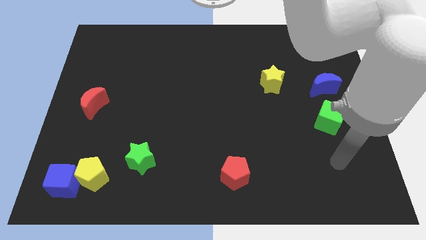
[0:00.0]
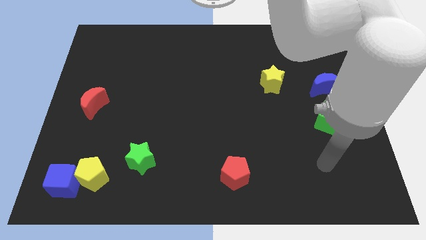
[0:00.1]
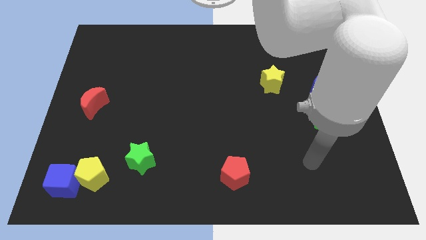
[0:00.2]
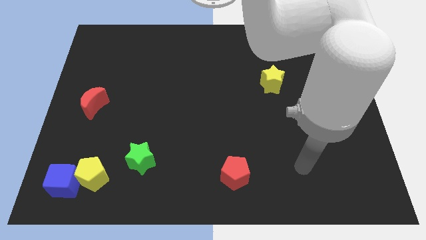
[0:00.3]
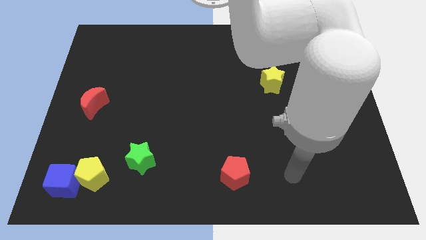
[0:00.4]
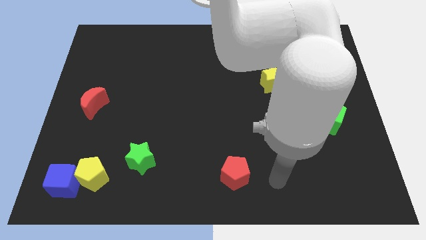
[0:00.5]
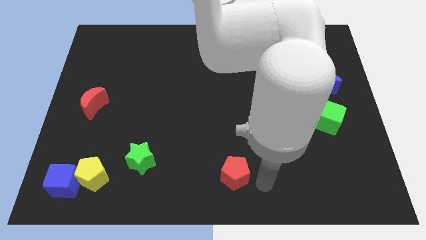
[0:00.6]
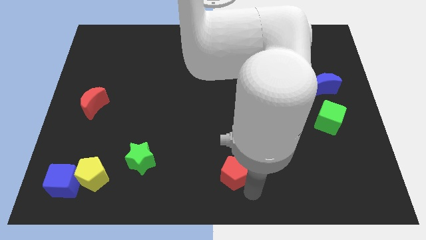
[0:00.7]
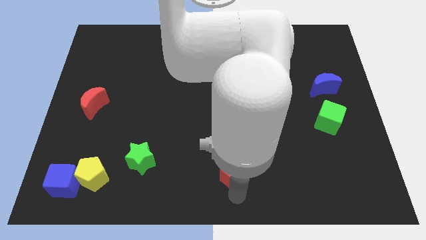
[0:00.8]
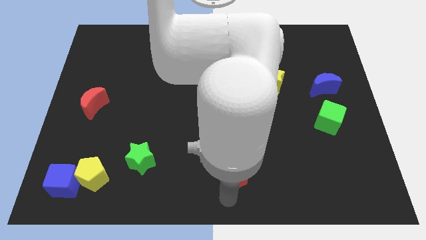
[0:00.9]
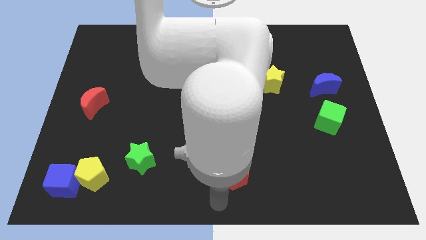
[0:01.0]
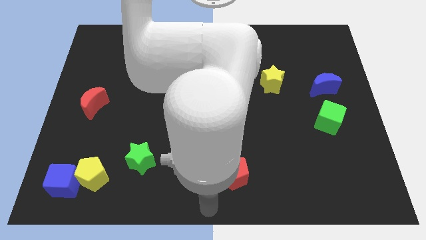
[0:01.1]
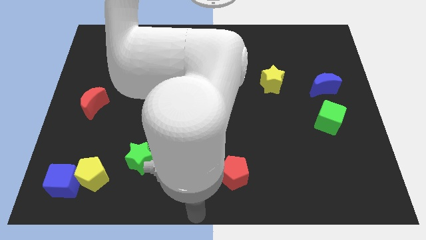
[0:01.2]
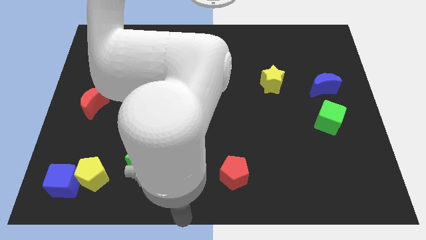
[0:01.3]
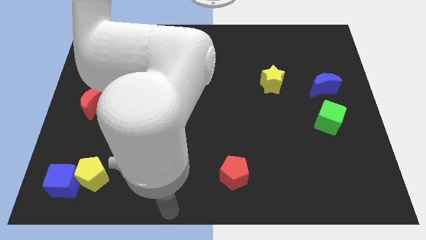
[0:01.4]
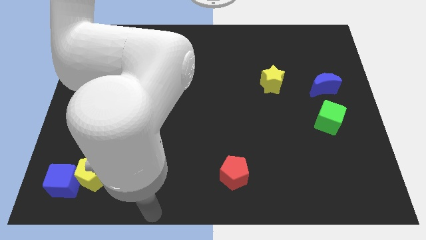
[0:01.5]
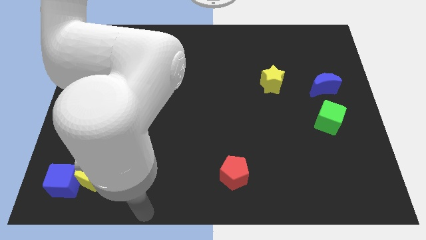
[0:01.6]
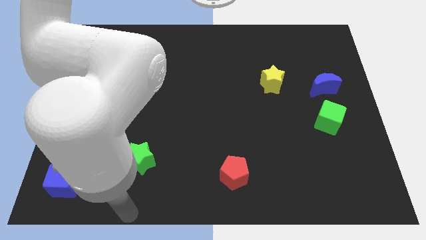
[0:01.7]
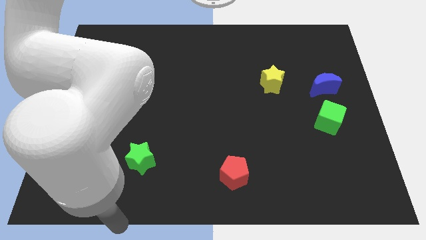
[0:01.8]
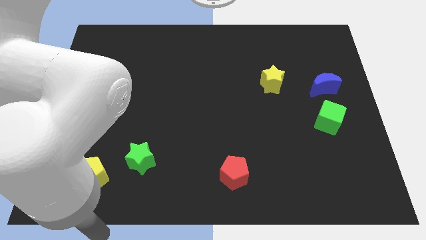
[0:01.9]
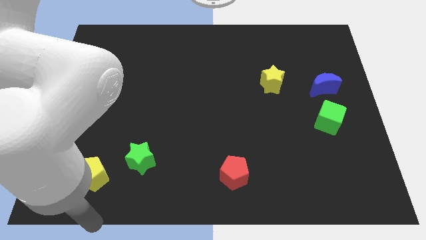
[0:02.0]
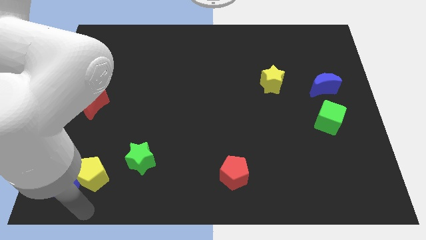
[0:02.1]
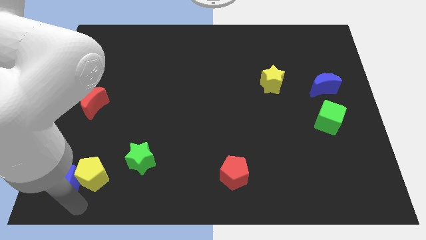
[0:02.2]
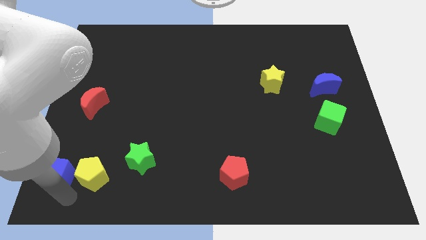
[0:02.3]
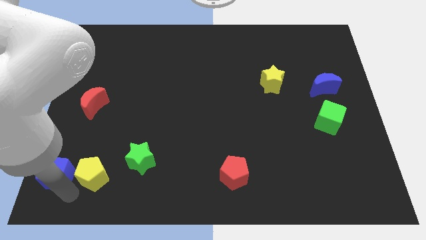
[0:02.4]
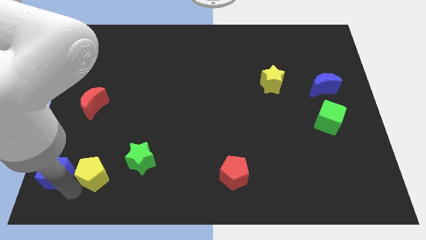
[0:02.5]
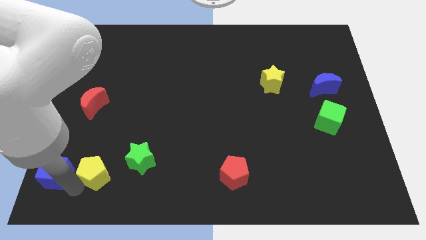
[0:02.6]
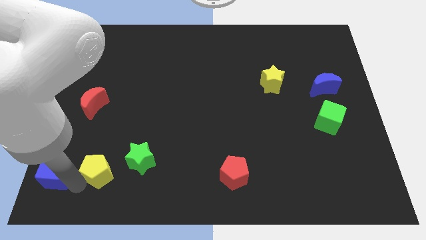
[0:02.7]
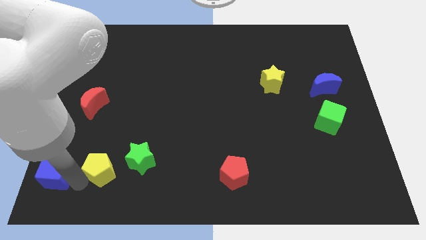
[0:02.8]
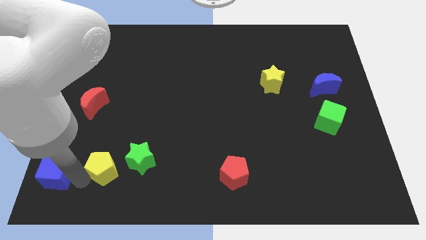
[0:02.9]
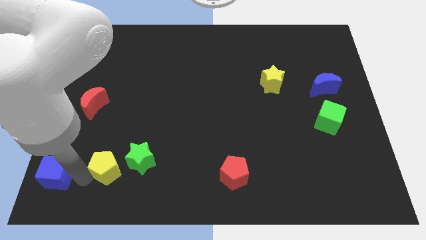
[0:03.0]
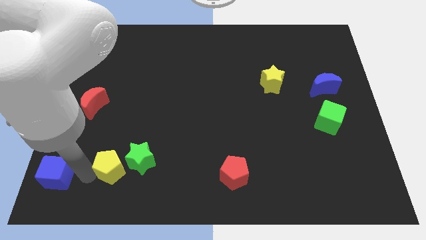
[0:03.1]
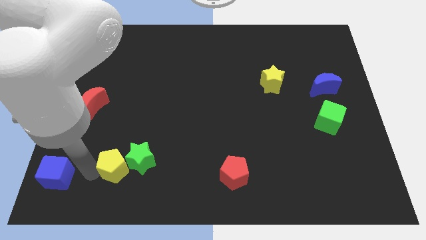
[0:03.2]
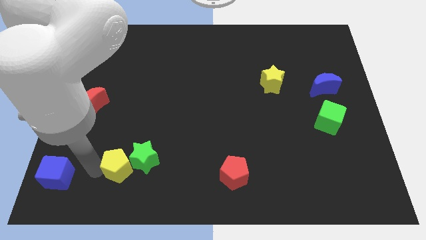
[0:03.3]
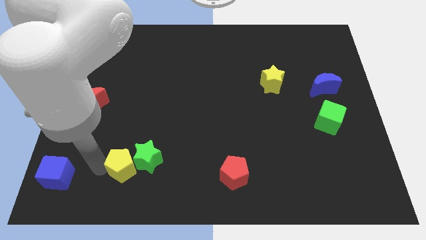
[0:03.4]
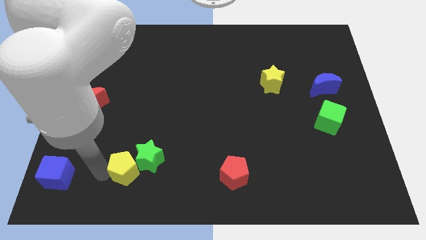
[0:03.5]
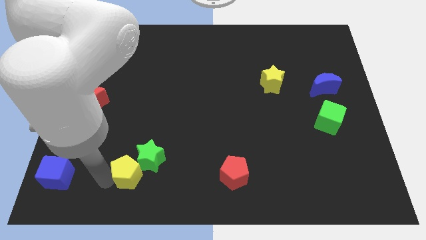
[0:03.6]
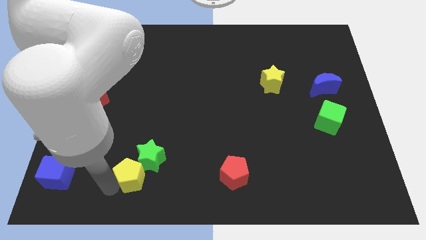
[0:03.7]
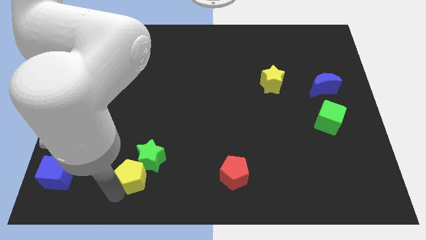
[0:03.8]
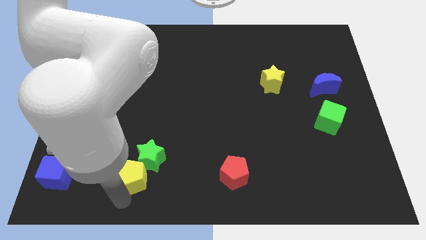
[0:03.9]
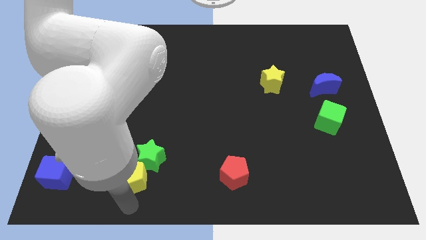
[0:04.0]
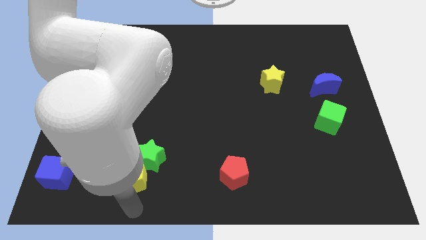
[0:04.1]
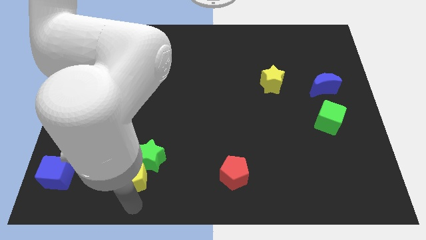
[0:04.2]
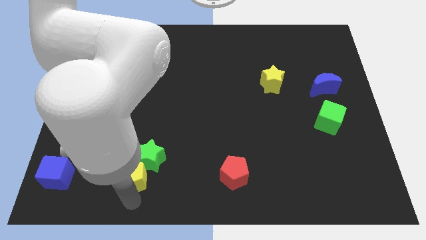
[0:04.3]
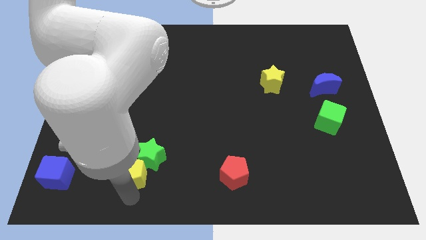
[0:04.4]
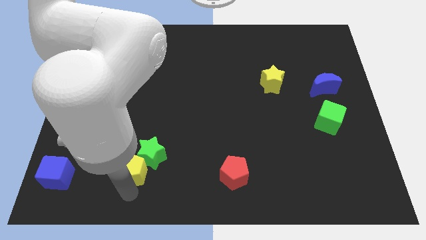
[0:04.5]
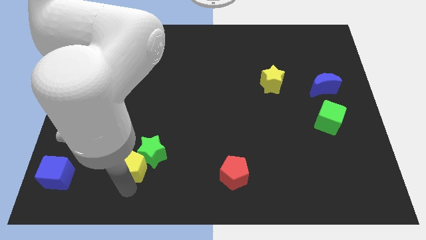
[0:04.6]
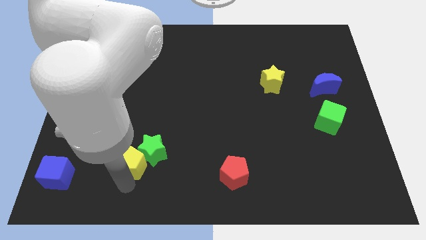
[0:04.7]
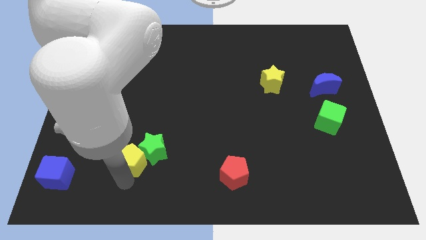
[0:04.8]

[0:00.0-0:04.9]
slightly push the yellow pentagon up and then right

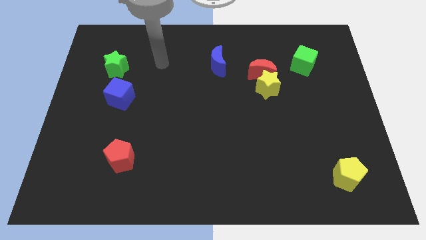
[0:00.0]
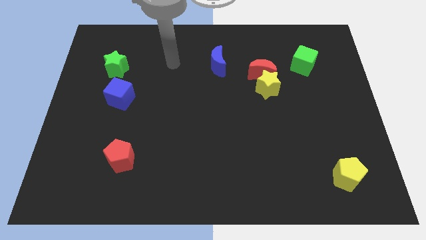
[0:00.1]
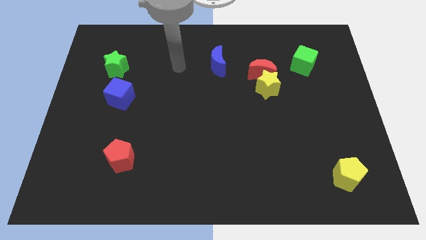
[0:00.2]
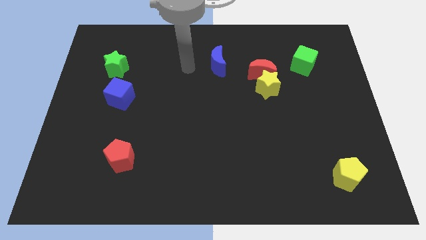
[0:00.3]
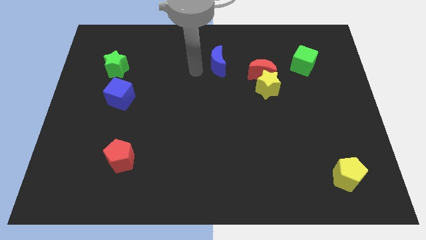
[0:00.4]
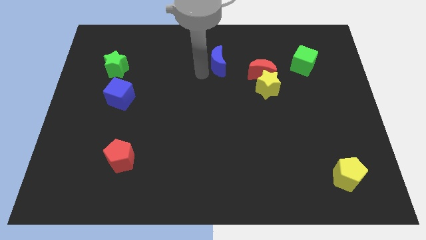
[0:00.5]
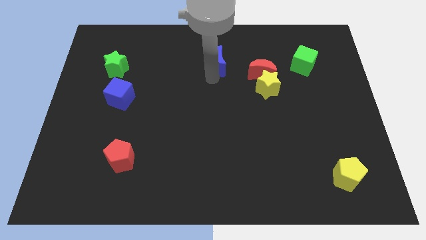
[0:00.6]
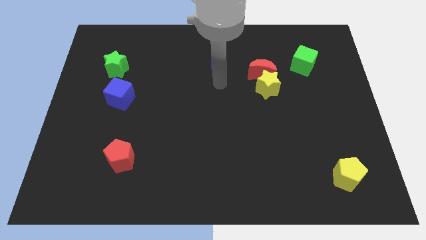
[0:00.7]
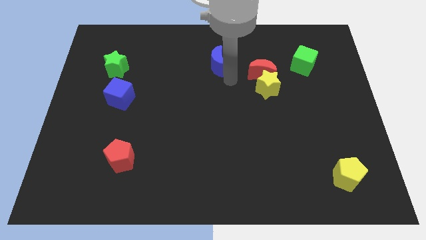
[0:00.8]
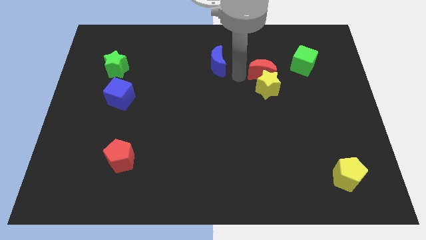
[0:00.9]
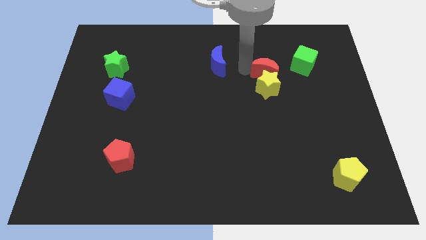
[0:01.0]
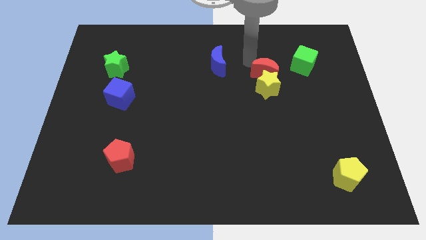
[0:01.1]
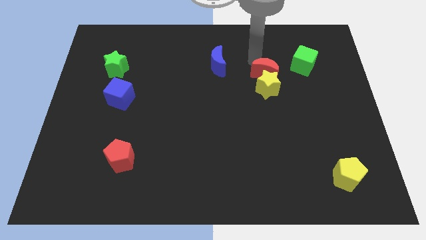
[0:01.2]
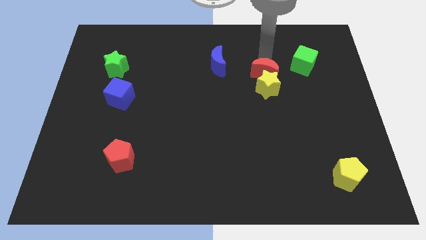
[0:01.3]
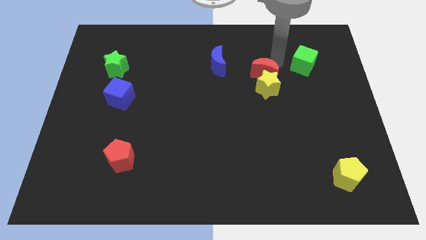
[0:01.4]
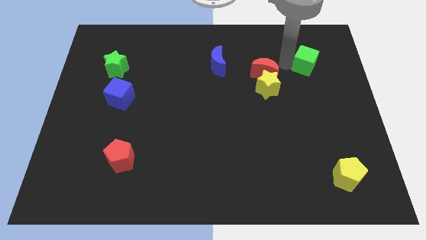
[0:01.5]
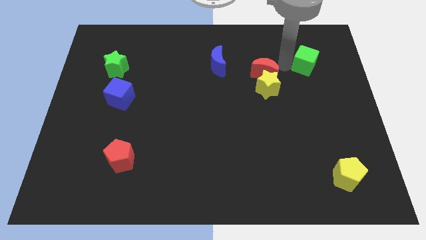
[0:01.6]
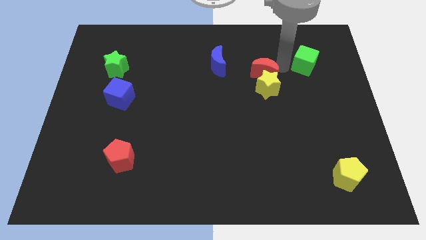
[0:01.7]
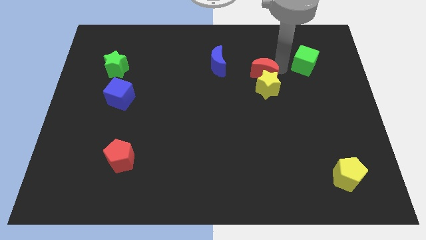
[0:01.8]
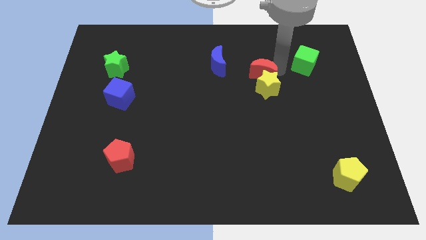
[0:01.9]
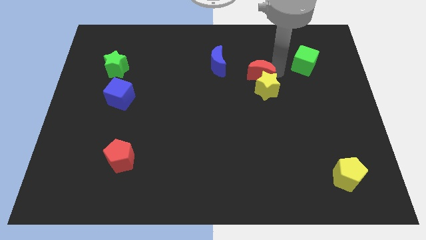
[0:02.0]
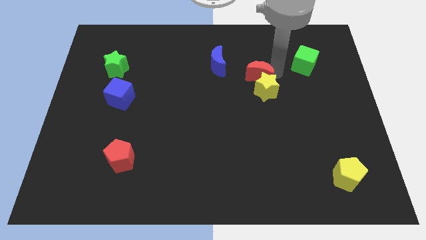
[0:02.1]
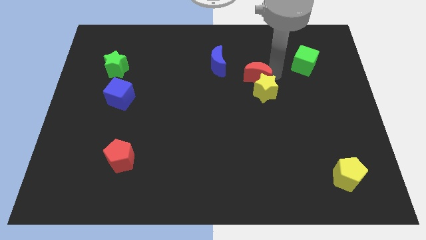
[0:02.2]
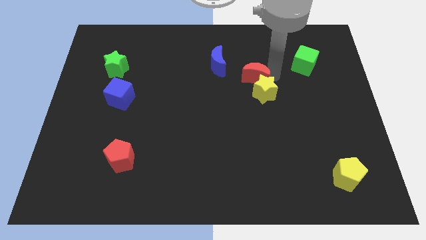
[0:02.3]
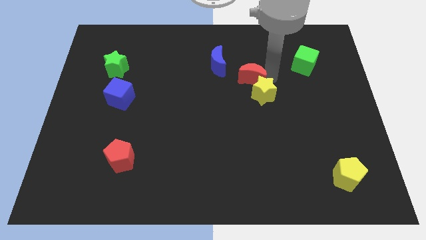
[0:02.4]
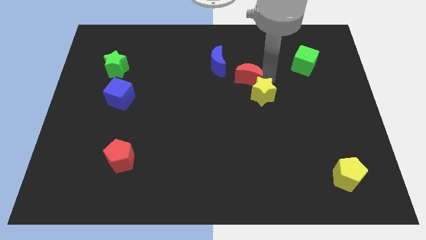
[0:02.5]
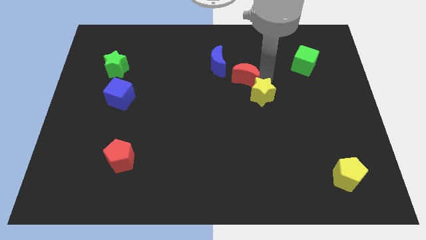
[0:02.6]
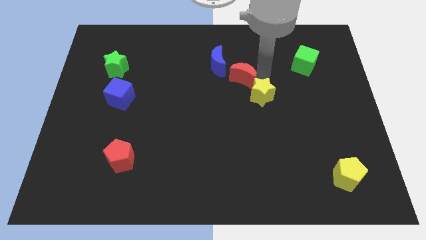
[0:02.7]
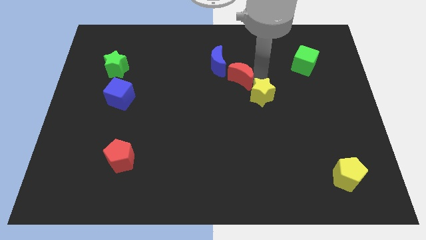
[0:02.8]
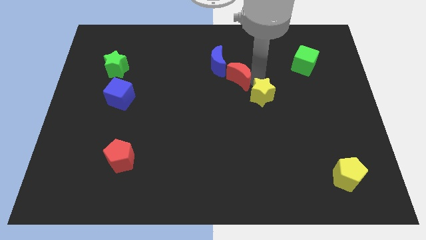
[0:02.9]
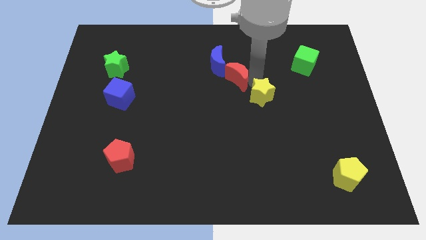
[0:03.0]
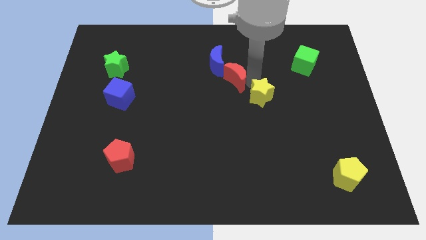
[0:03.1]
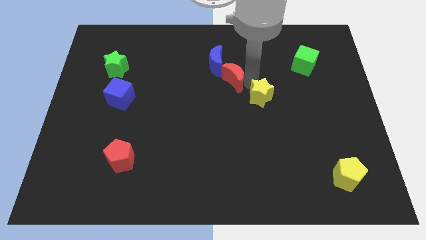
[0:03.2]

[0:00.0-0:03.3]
slightly slide the red moon left
